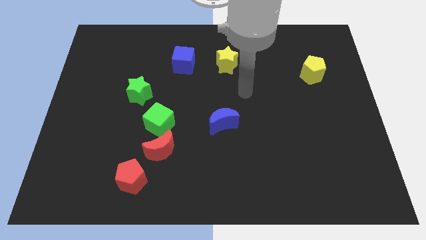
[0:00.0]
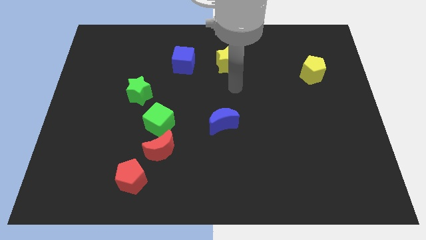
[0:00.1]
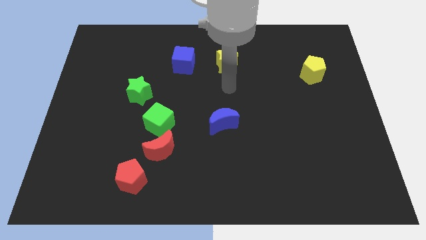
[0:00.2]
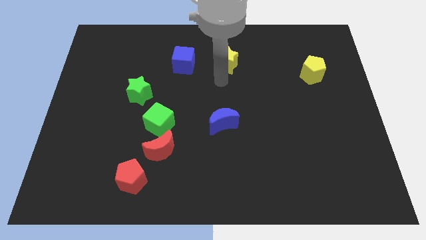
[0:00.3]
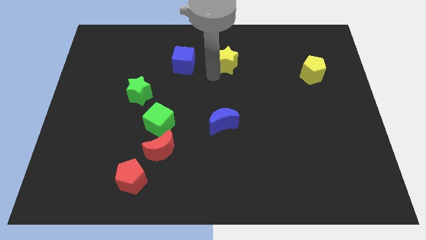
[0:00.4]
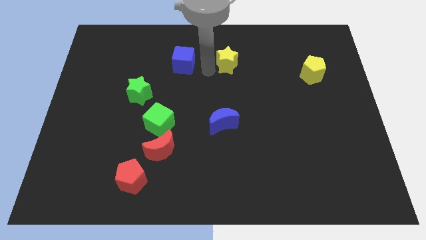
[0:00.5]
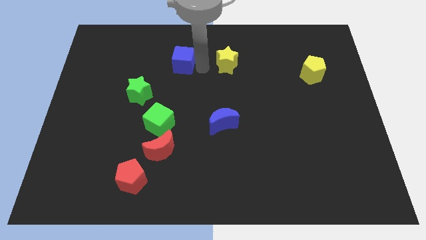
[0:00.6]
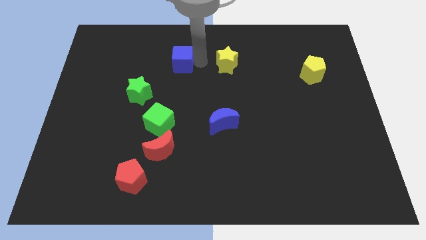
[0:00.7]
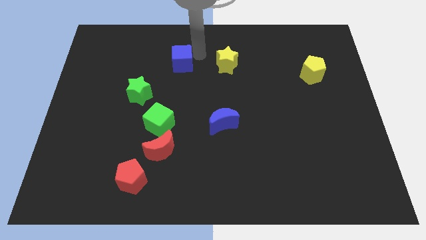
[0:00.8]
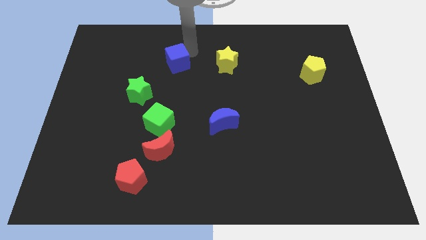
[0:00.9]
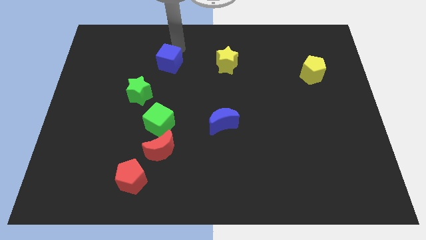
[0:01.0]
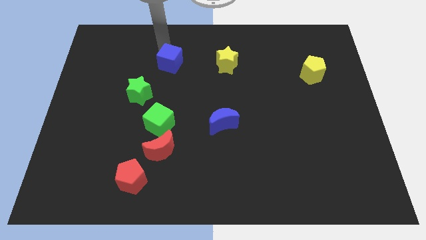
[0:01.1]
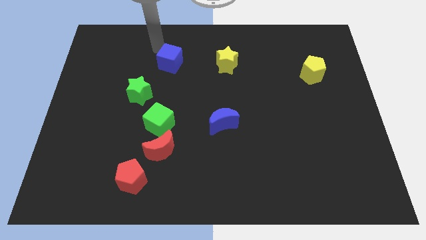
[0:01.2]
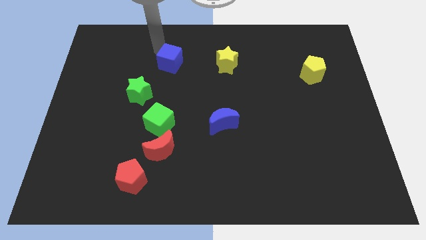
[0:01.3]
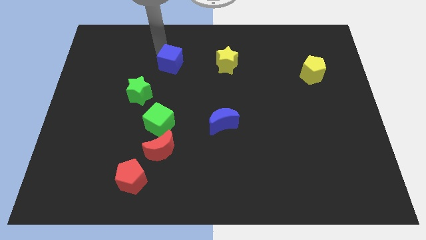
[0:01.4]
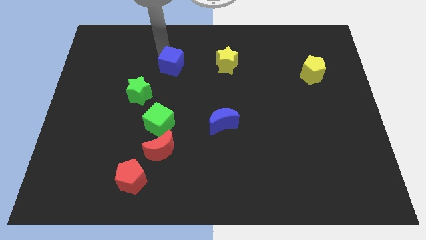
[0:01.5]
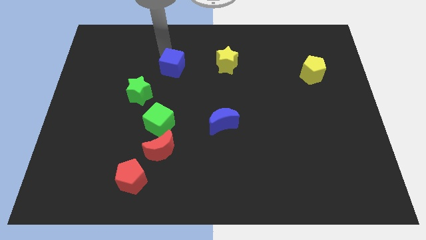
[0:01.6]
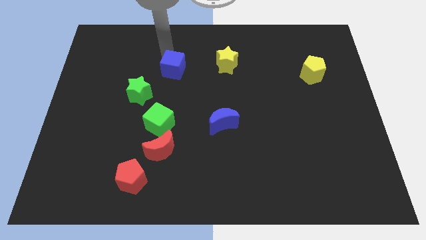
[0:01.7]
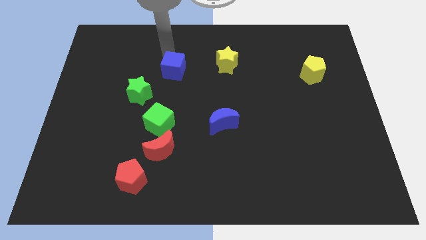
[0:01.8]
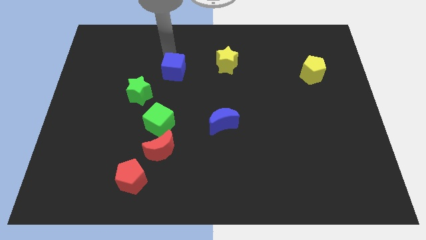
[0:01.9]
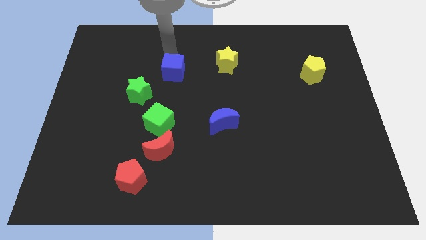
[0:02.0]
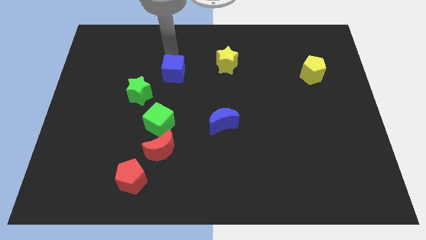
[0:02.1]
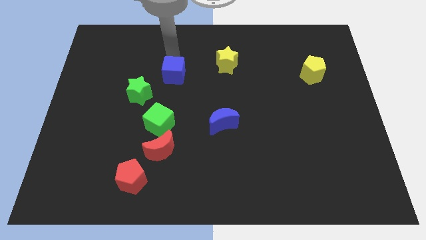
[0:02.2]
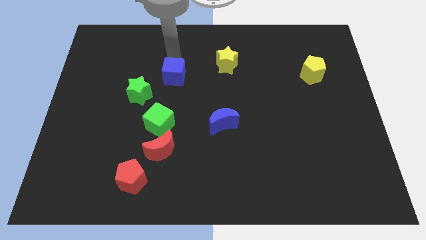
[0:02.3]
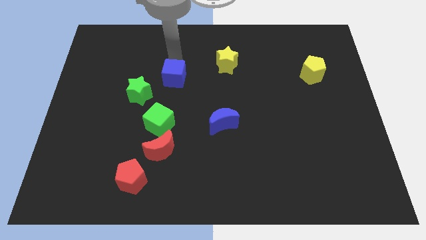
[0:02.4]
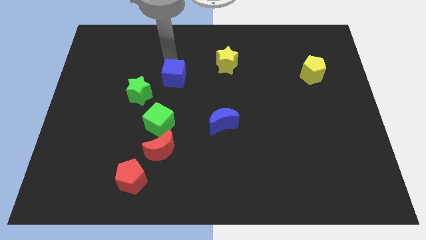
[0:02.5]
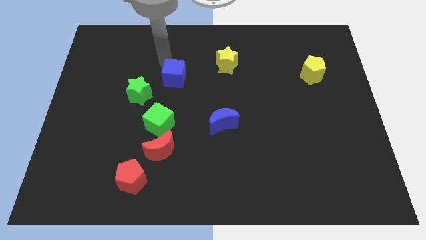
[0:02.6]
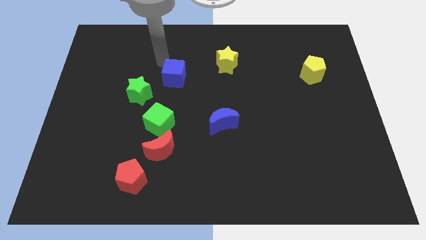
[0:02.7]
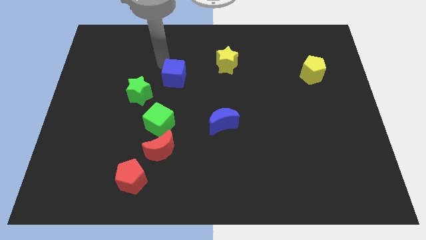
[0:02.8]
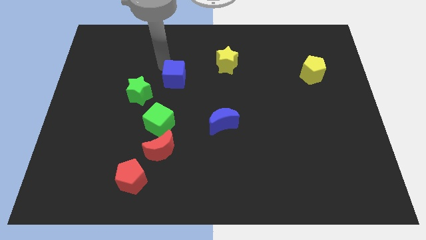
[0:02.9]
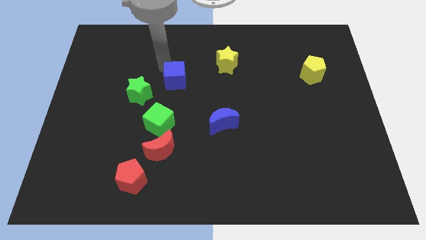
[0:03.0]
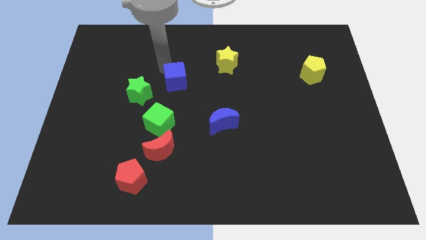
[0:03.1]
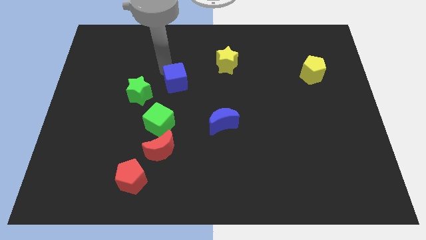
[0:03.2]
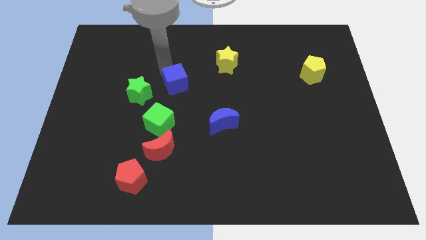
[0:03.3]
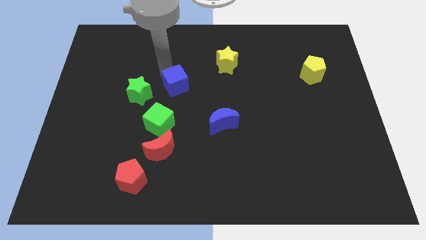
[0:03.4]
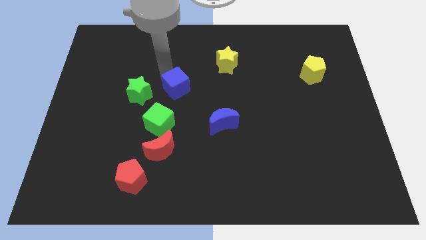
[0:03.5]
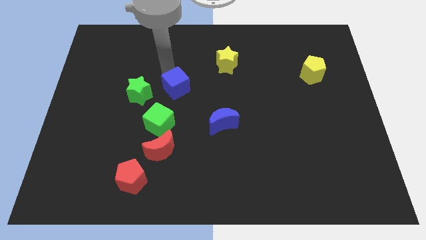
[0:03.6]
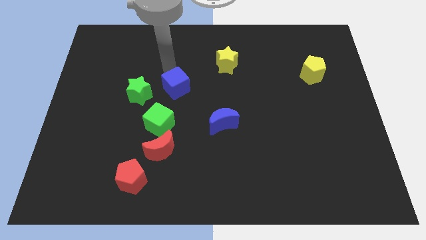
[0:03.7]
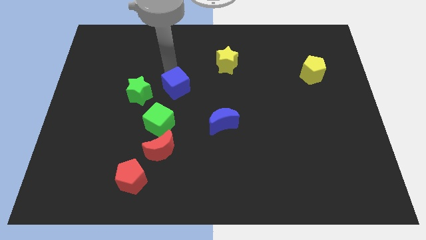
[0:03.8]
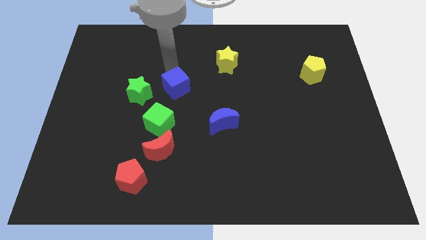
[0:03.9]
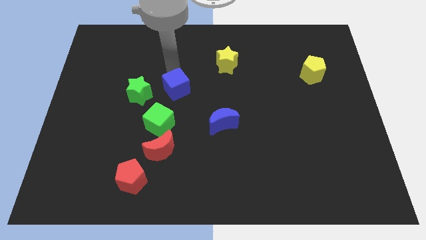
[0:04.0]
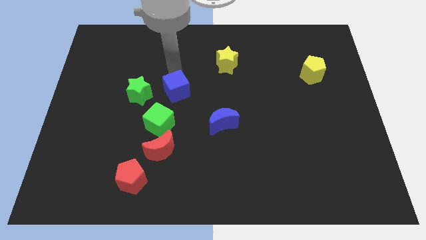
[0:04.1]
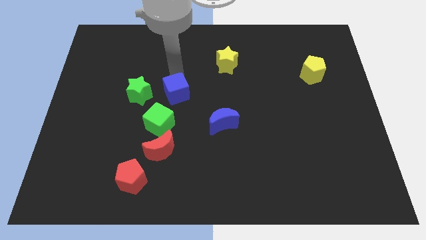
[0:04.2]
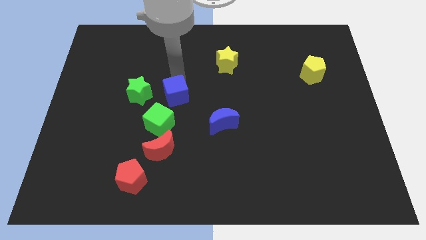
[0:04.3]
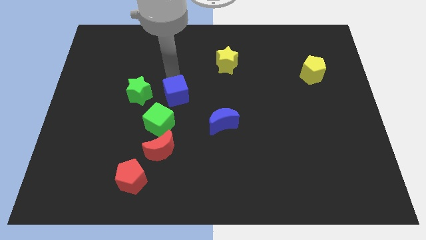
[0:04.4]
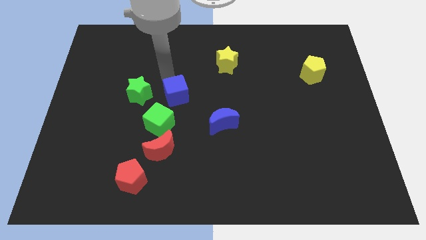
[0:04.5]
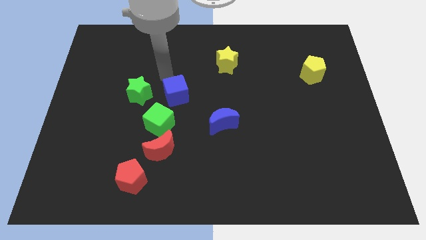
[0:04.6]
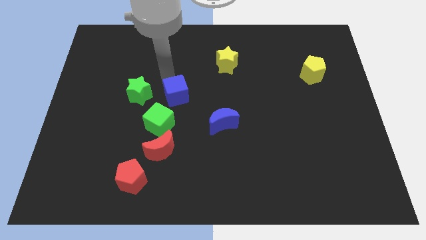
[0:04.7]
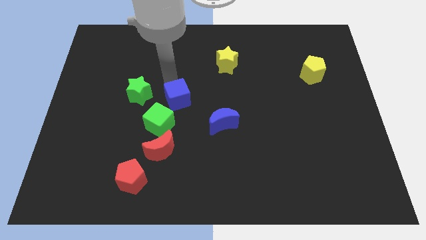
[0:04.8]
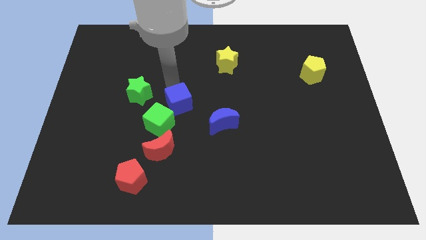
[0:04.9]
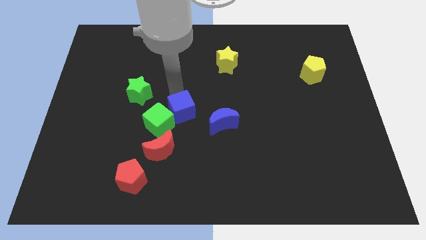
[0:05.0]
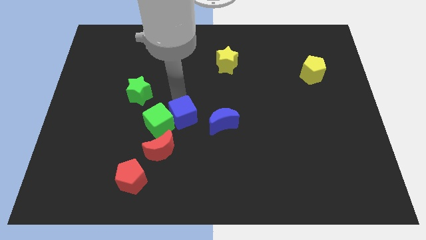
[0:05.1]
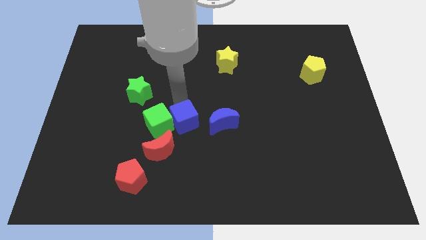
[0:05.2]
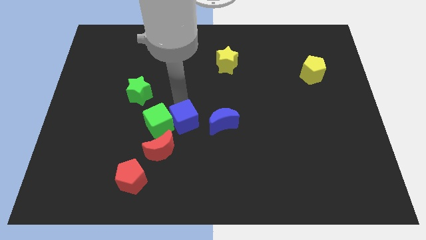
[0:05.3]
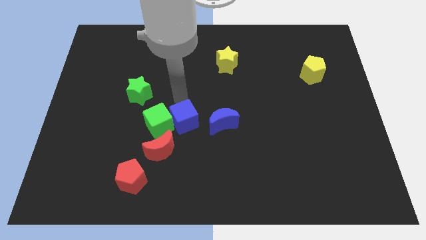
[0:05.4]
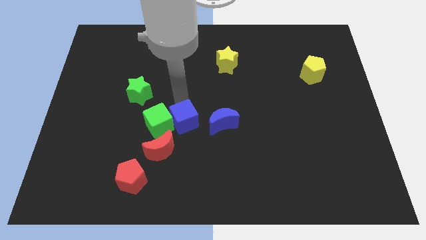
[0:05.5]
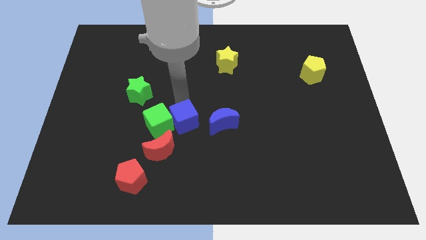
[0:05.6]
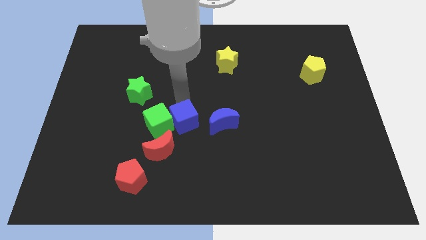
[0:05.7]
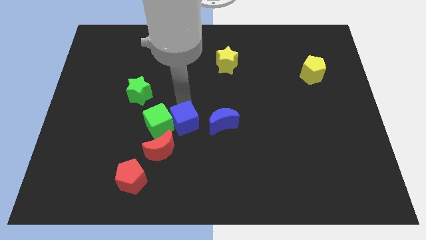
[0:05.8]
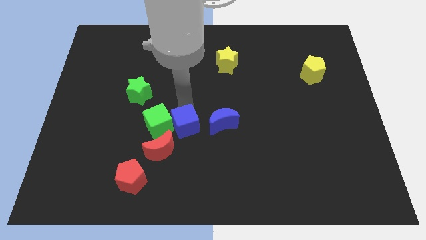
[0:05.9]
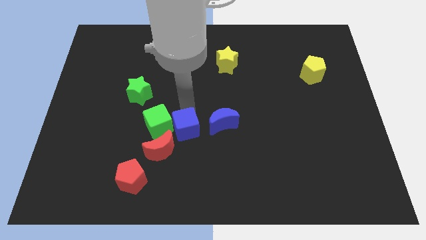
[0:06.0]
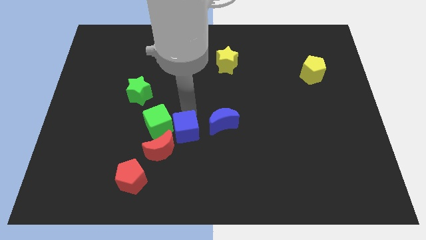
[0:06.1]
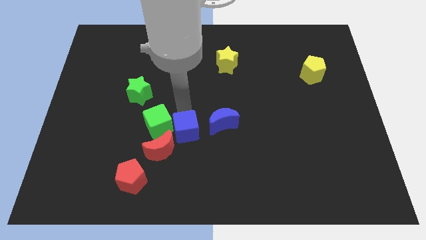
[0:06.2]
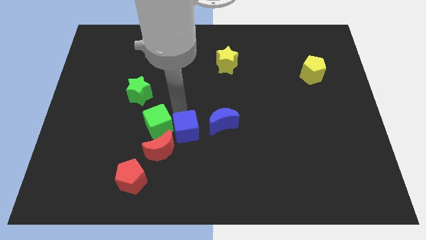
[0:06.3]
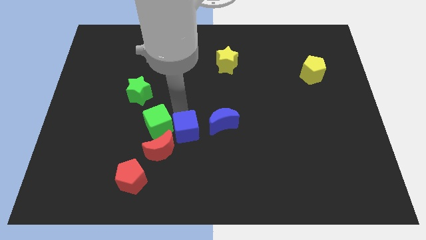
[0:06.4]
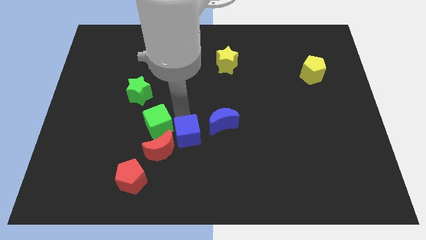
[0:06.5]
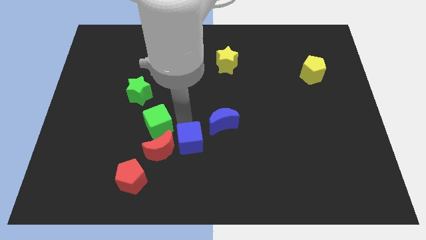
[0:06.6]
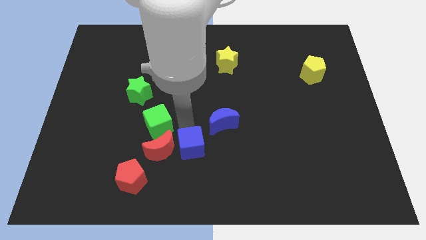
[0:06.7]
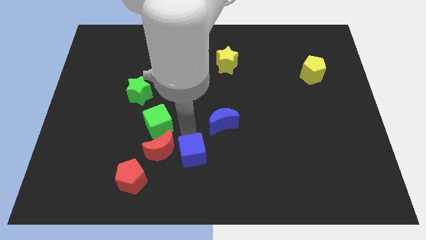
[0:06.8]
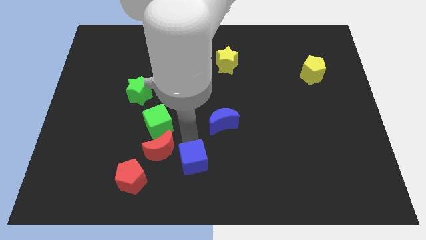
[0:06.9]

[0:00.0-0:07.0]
put the blue cube to the bottom
